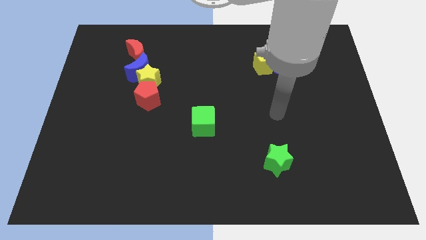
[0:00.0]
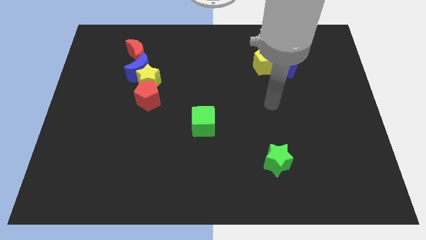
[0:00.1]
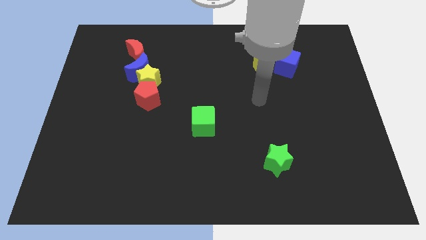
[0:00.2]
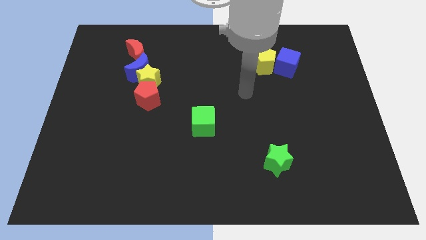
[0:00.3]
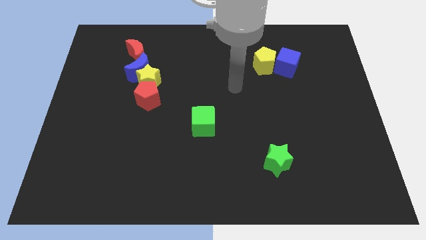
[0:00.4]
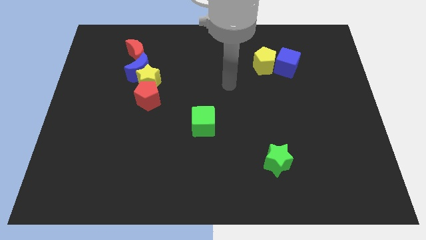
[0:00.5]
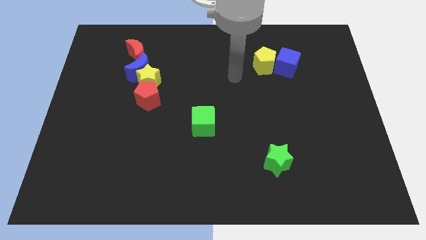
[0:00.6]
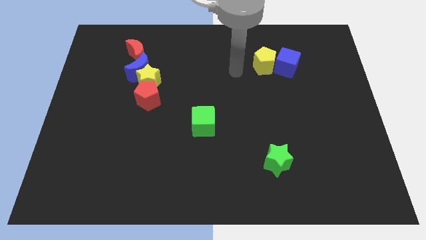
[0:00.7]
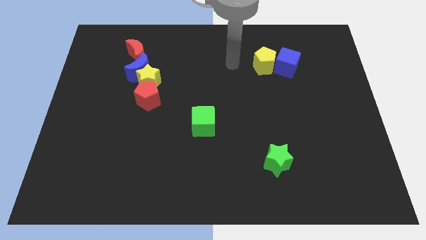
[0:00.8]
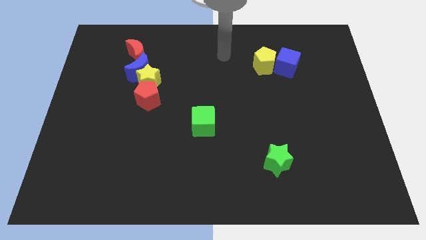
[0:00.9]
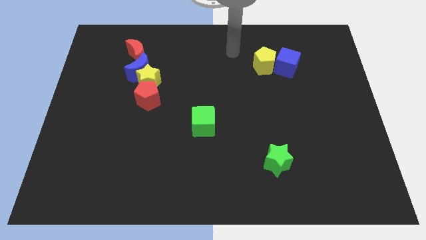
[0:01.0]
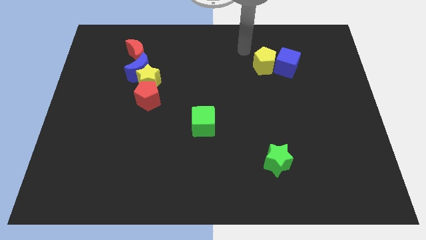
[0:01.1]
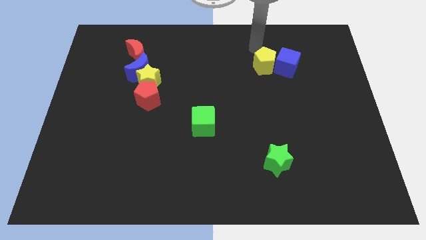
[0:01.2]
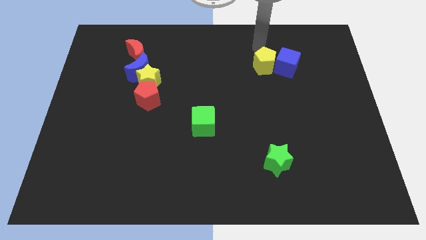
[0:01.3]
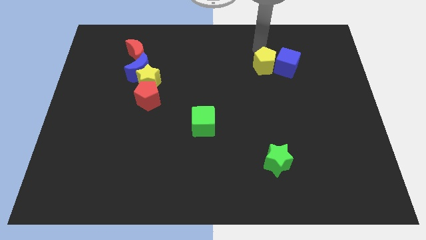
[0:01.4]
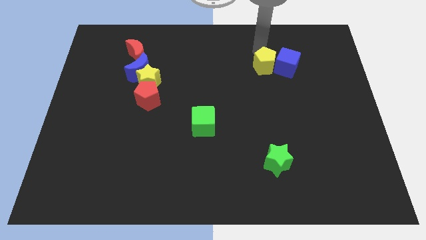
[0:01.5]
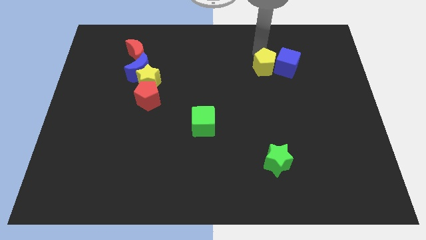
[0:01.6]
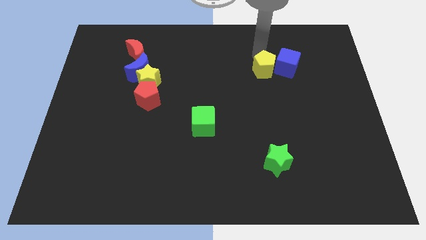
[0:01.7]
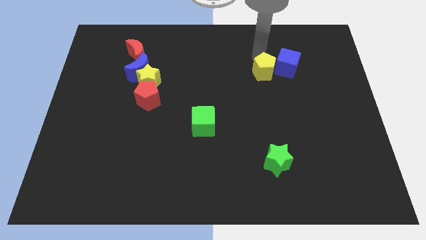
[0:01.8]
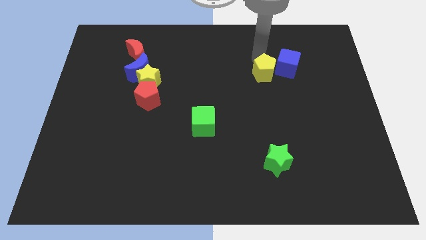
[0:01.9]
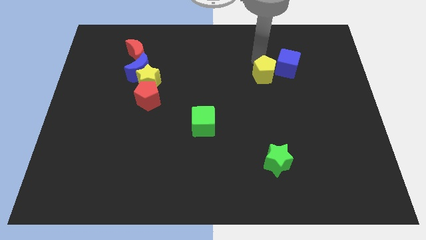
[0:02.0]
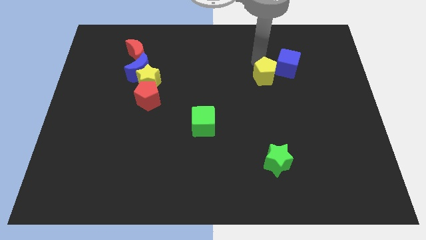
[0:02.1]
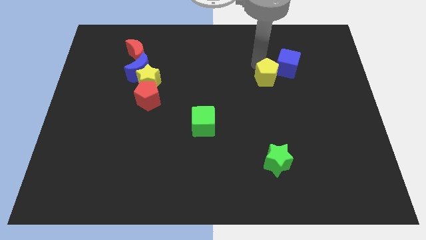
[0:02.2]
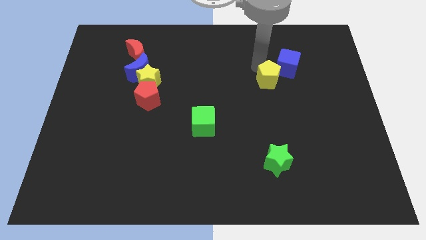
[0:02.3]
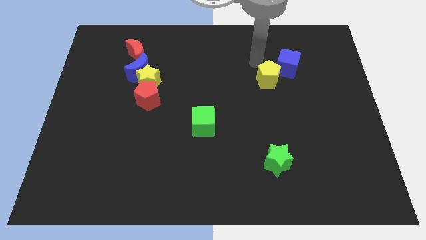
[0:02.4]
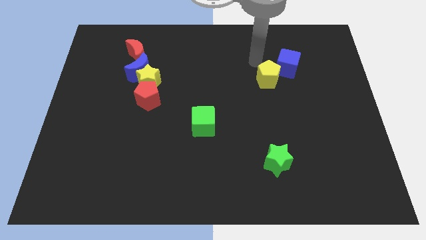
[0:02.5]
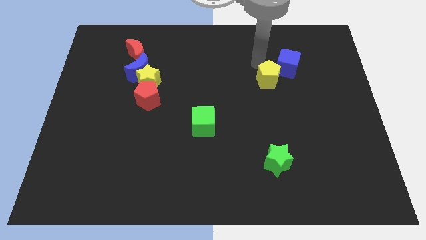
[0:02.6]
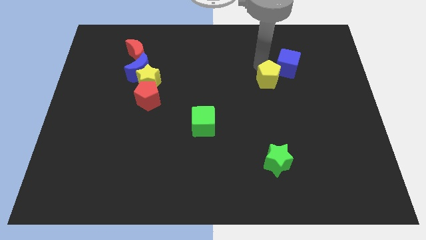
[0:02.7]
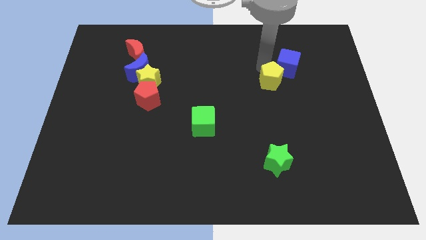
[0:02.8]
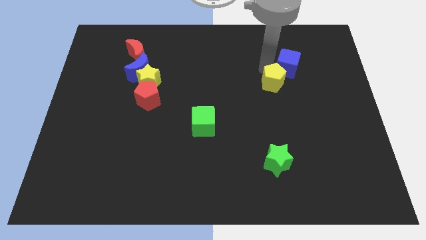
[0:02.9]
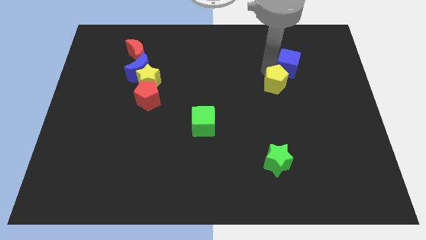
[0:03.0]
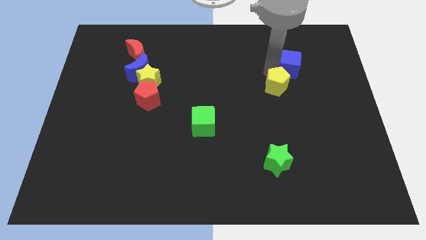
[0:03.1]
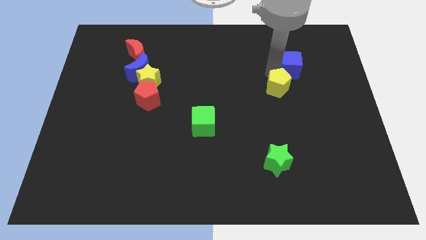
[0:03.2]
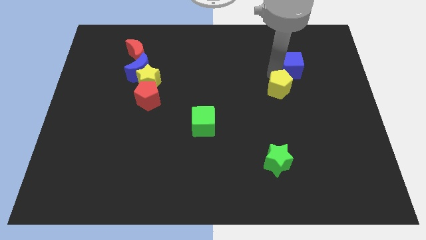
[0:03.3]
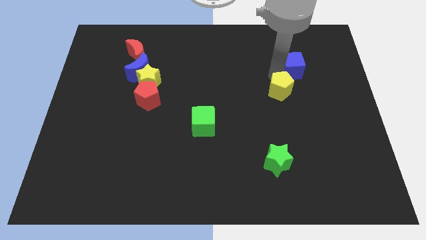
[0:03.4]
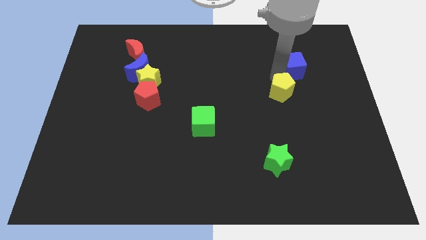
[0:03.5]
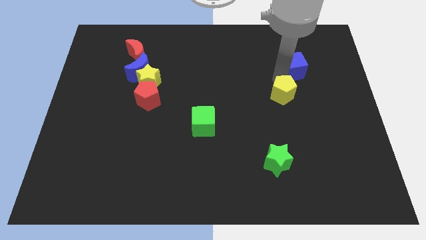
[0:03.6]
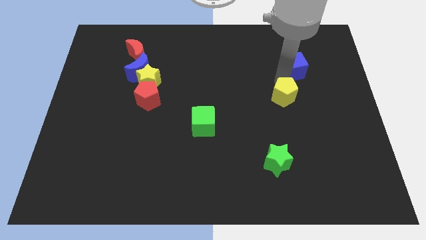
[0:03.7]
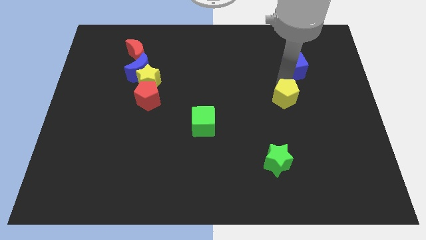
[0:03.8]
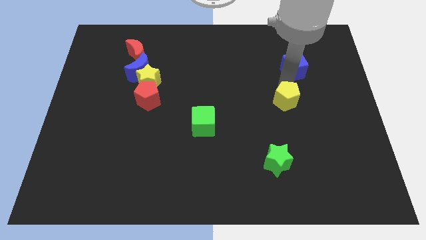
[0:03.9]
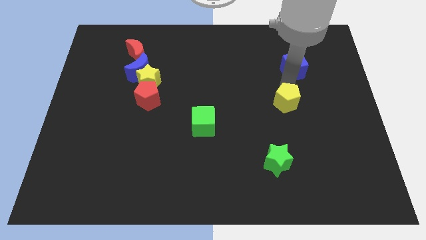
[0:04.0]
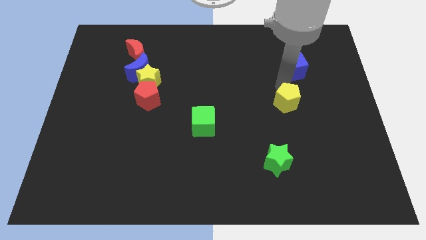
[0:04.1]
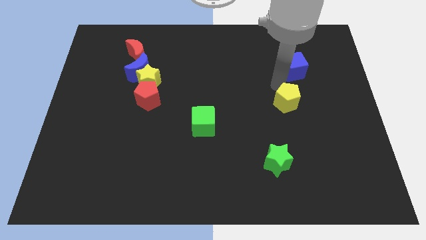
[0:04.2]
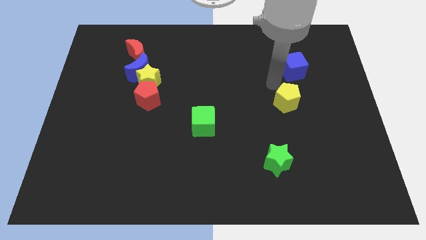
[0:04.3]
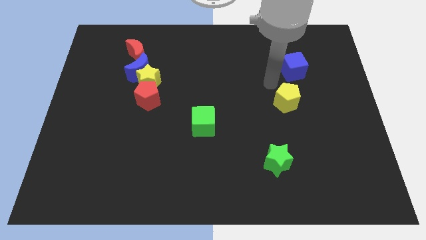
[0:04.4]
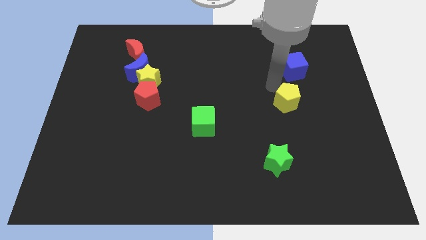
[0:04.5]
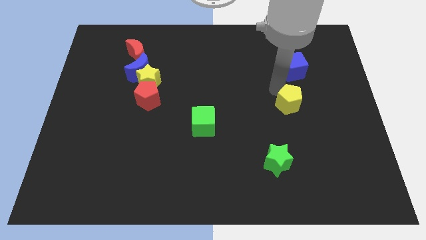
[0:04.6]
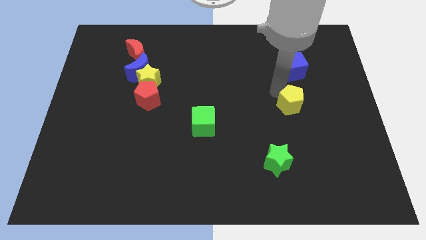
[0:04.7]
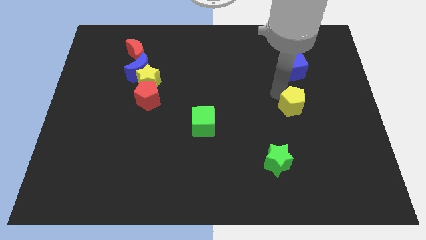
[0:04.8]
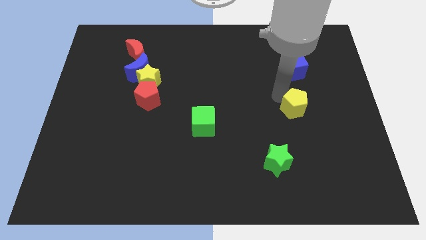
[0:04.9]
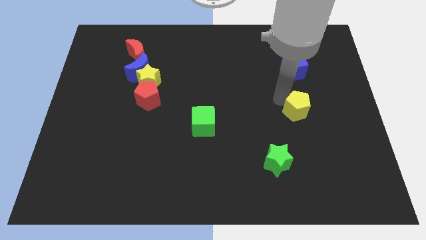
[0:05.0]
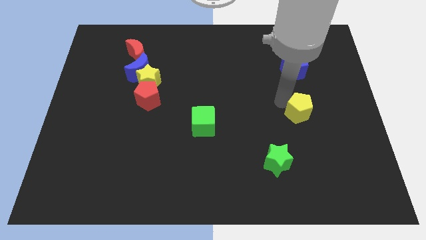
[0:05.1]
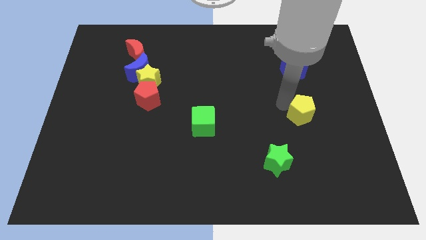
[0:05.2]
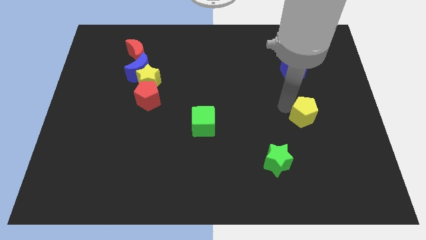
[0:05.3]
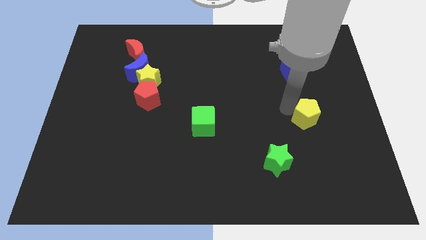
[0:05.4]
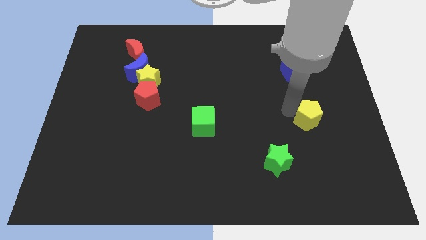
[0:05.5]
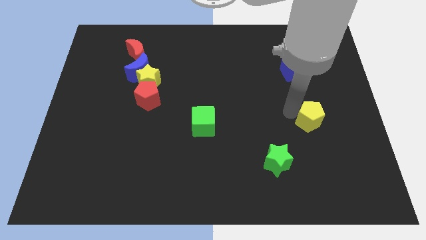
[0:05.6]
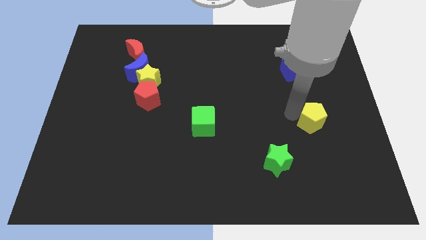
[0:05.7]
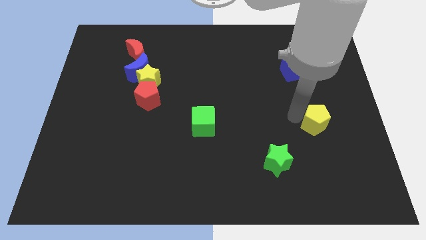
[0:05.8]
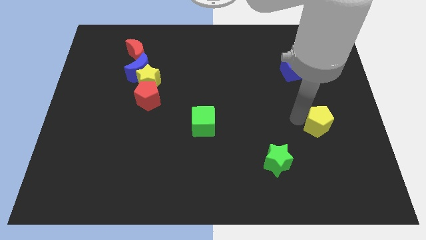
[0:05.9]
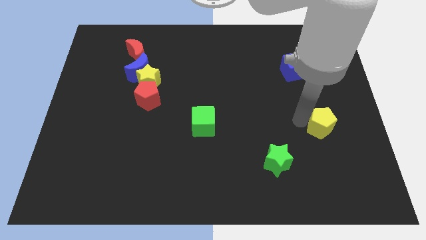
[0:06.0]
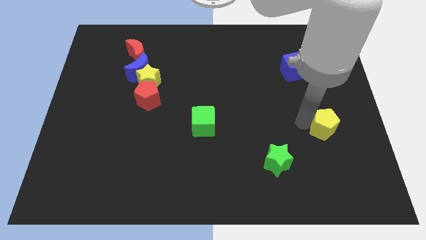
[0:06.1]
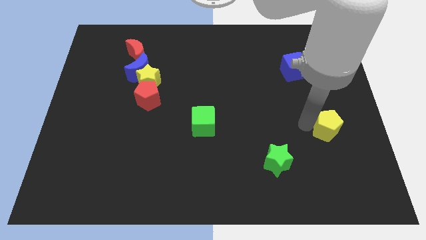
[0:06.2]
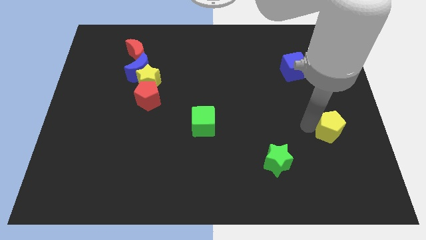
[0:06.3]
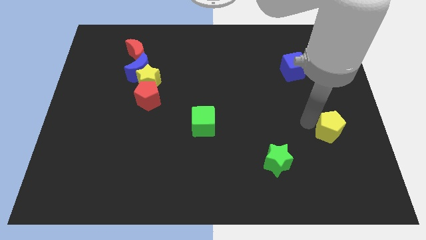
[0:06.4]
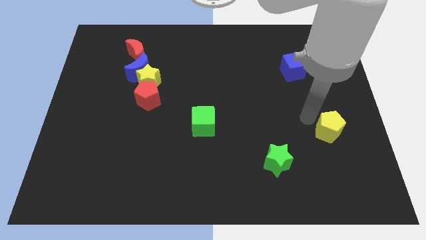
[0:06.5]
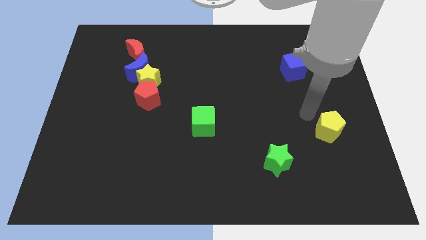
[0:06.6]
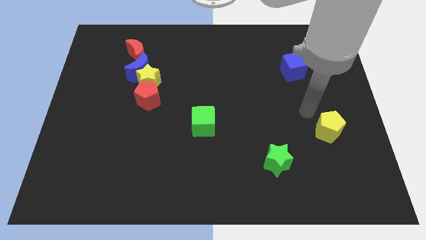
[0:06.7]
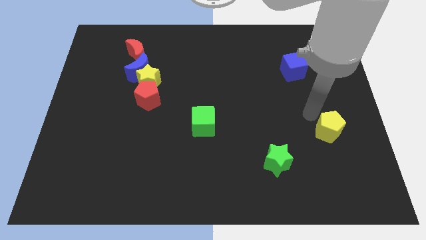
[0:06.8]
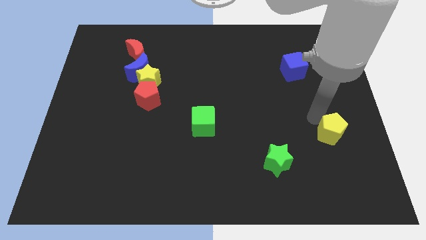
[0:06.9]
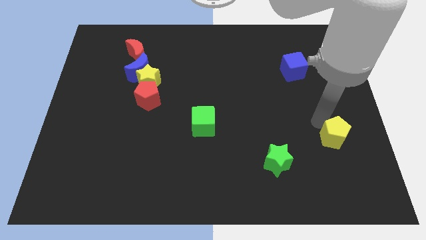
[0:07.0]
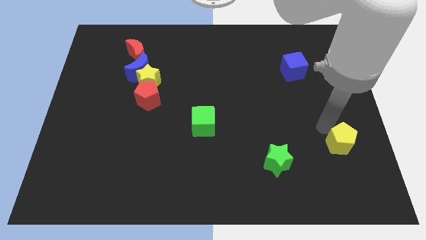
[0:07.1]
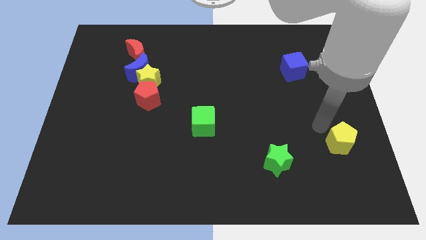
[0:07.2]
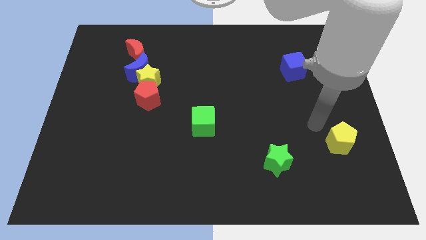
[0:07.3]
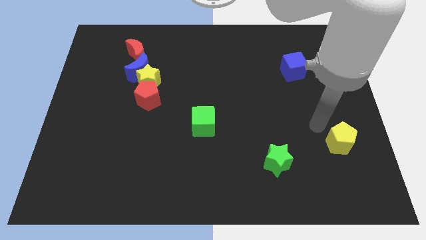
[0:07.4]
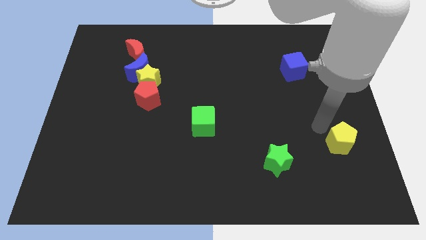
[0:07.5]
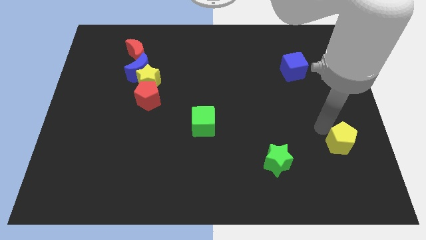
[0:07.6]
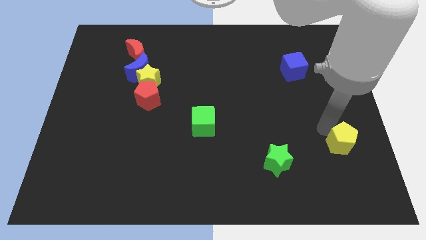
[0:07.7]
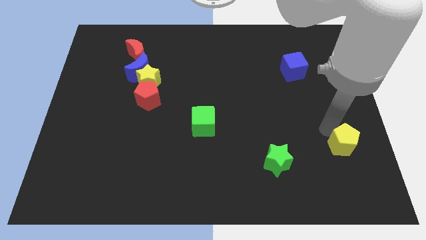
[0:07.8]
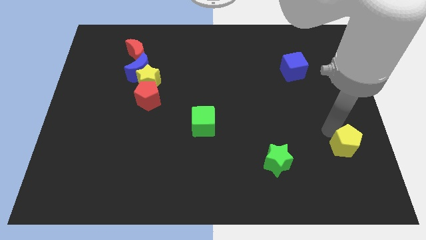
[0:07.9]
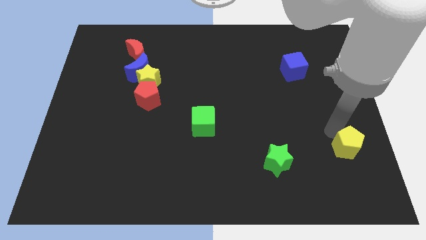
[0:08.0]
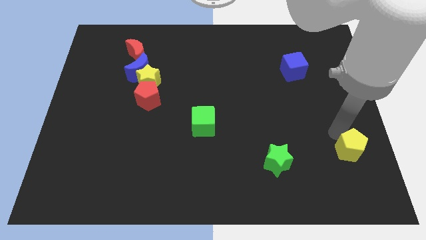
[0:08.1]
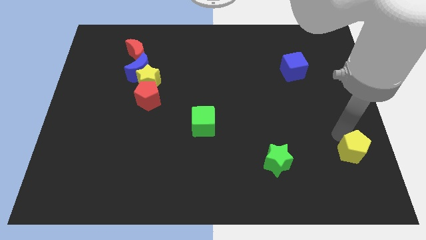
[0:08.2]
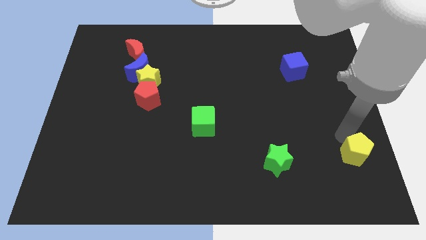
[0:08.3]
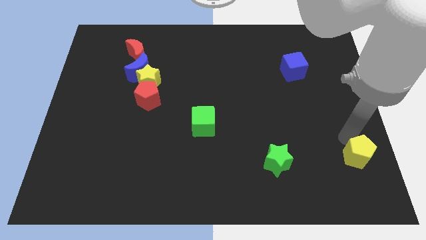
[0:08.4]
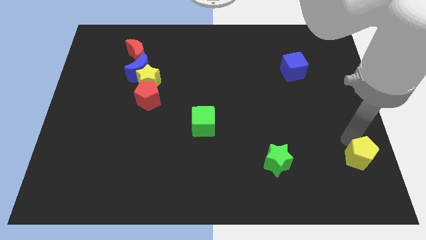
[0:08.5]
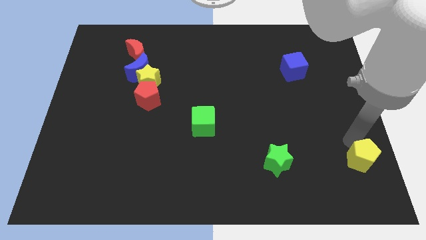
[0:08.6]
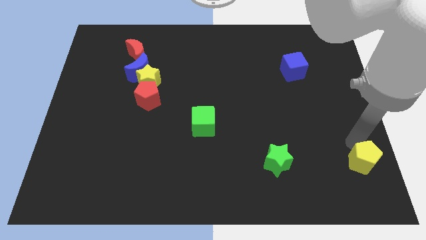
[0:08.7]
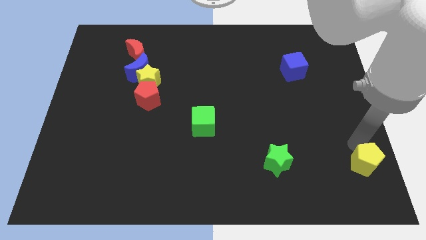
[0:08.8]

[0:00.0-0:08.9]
slide the yellow pentagon to the bottom right of the board
